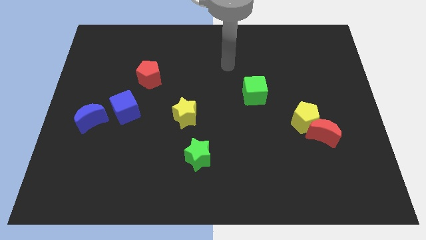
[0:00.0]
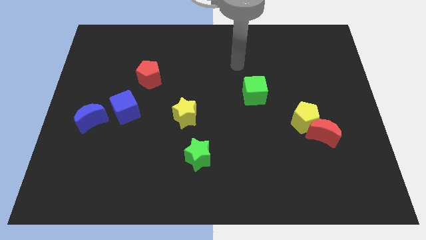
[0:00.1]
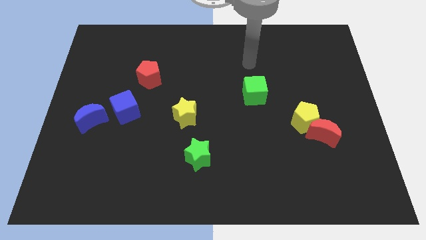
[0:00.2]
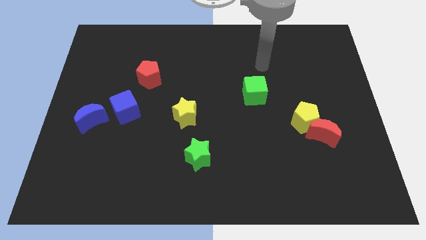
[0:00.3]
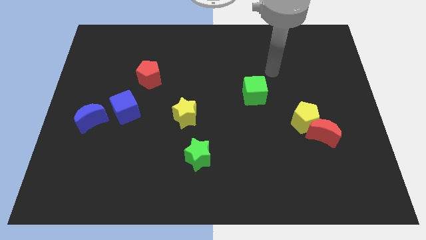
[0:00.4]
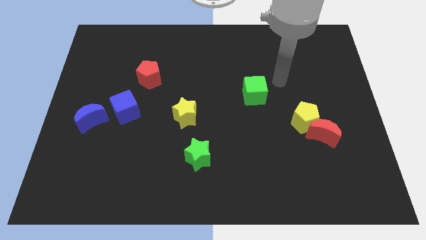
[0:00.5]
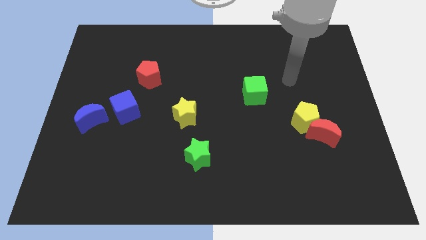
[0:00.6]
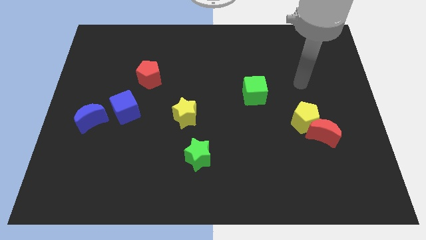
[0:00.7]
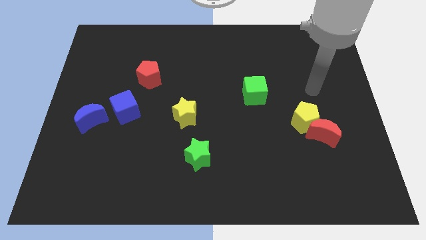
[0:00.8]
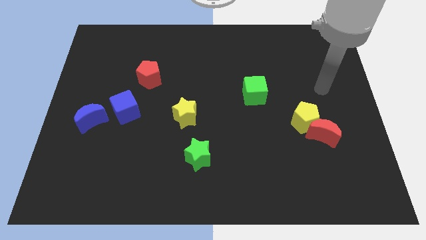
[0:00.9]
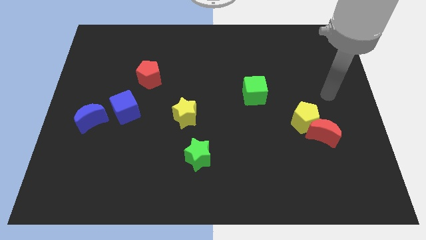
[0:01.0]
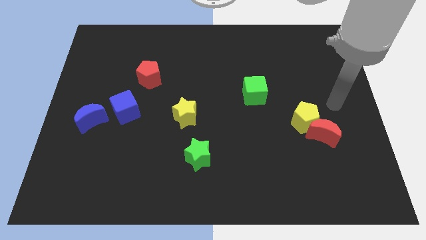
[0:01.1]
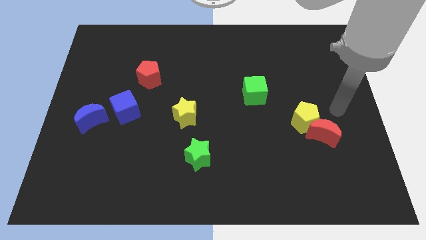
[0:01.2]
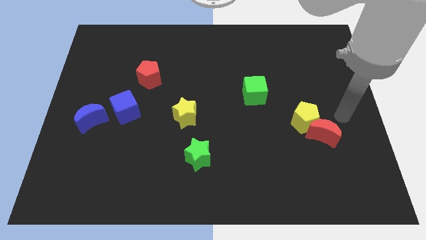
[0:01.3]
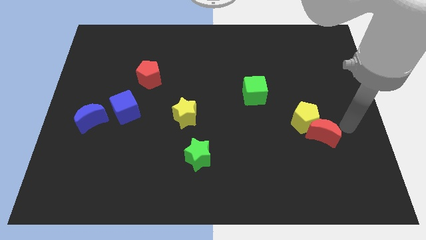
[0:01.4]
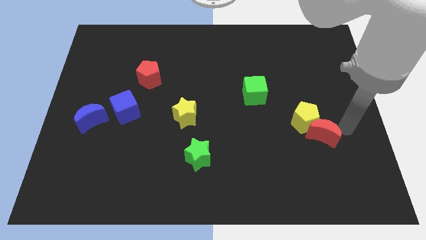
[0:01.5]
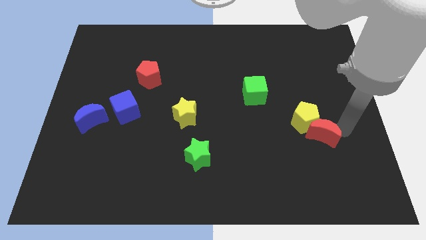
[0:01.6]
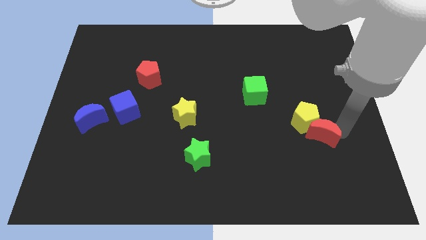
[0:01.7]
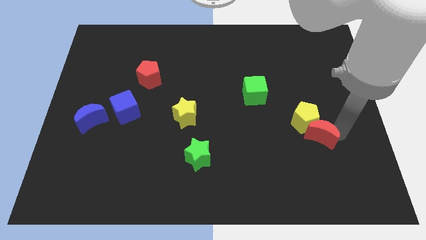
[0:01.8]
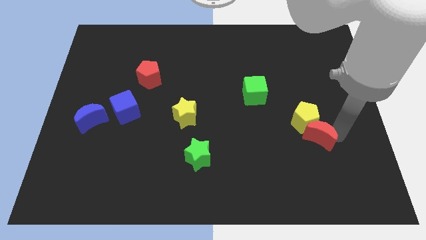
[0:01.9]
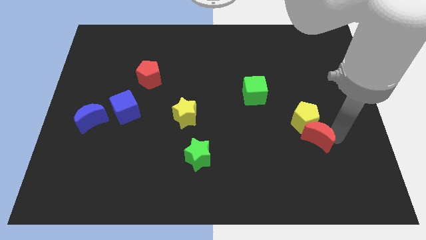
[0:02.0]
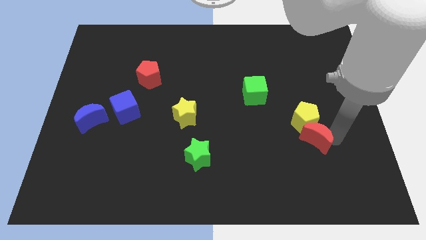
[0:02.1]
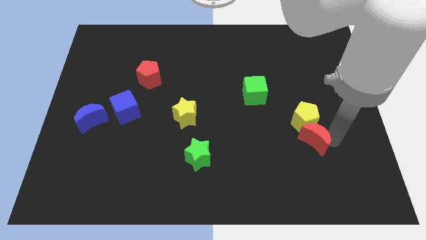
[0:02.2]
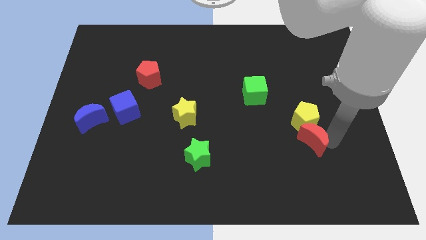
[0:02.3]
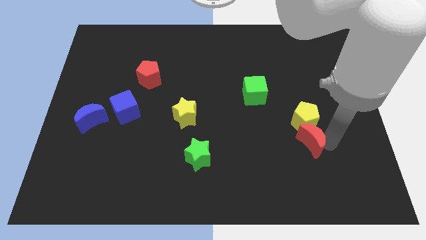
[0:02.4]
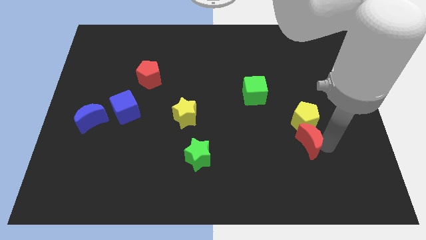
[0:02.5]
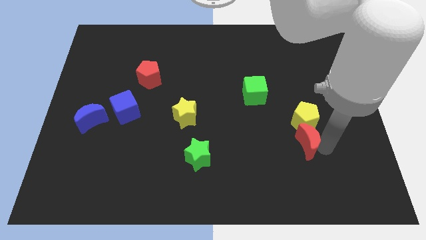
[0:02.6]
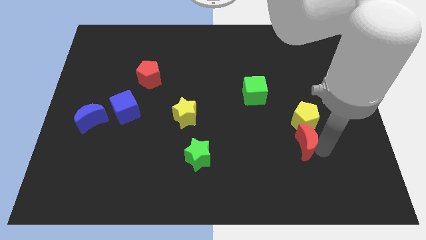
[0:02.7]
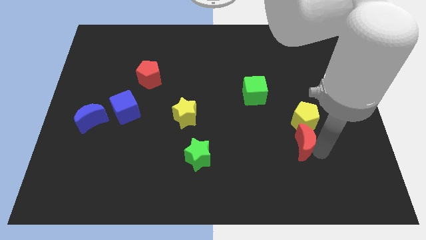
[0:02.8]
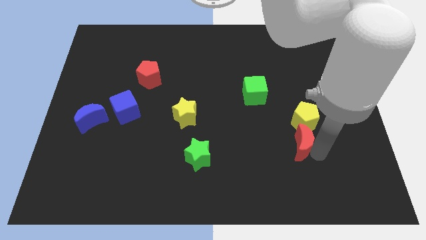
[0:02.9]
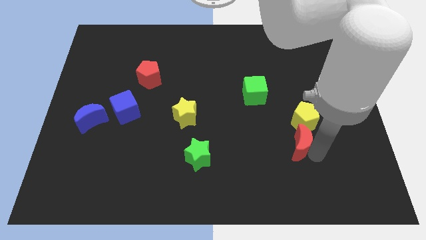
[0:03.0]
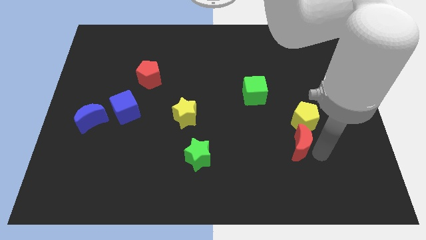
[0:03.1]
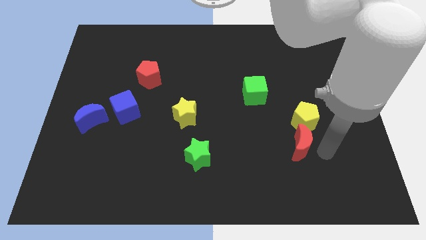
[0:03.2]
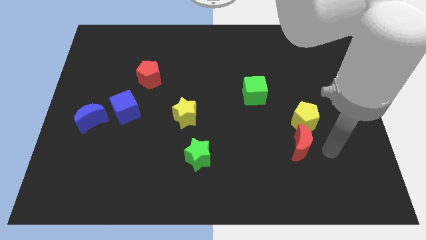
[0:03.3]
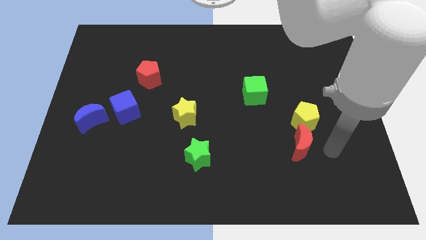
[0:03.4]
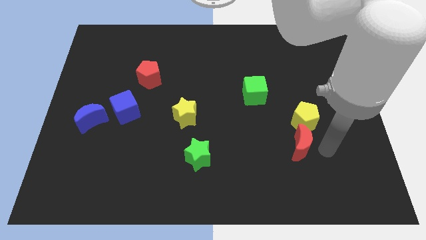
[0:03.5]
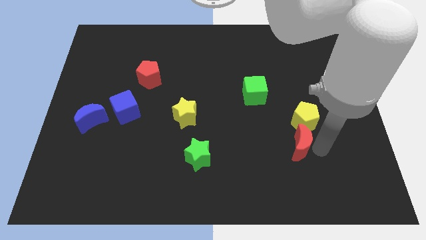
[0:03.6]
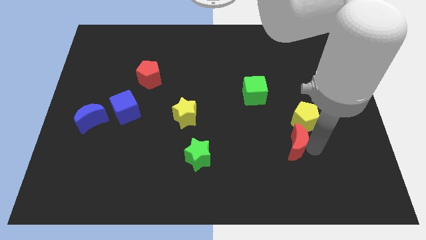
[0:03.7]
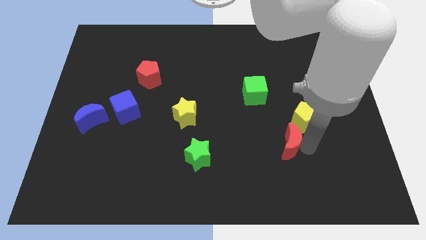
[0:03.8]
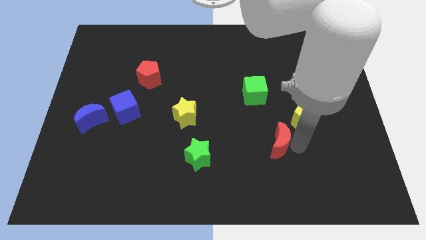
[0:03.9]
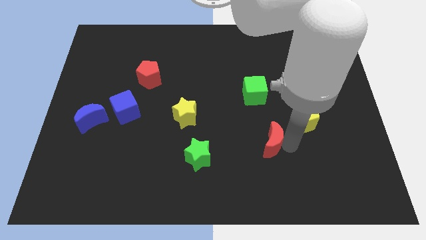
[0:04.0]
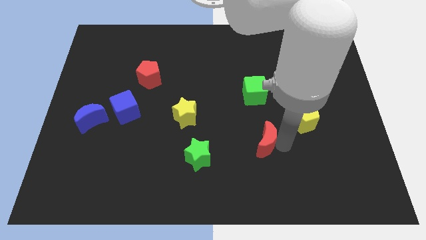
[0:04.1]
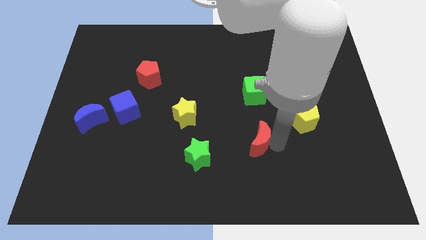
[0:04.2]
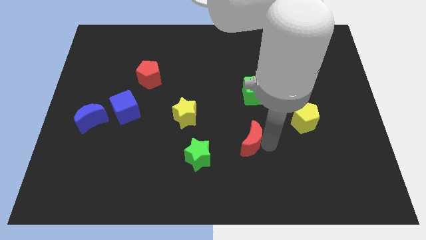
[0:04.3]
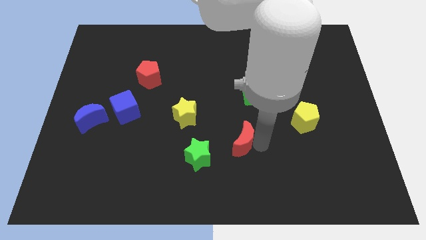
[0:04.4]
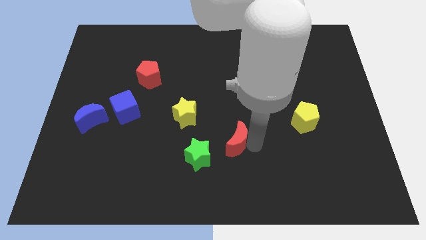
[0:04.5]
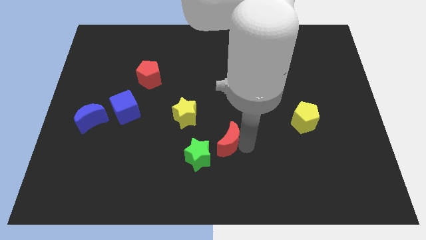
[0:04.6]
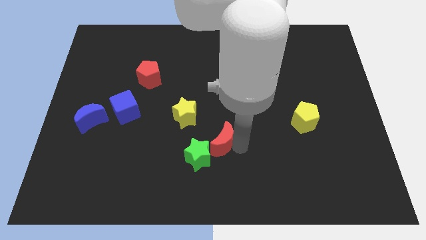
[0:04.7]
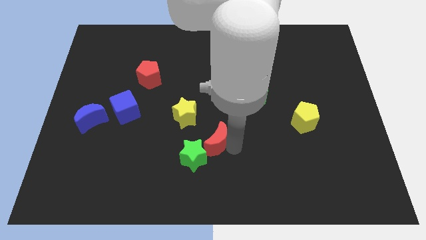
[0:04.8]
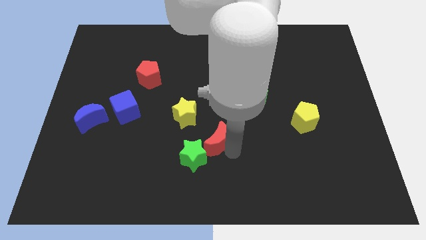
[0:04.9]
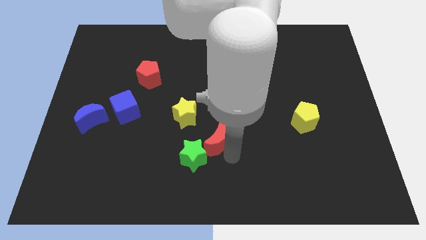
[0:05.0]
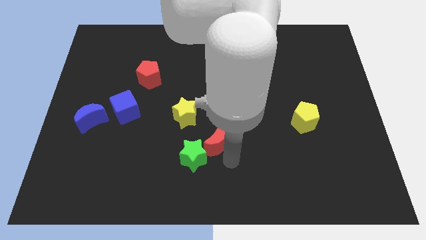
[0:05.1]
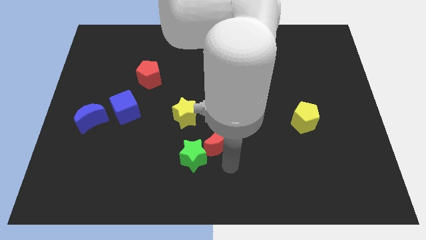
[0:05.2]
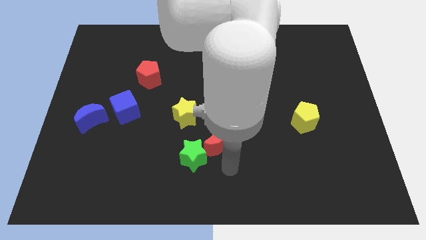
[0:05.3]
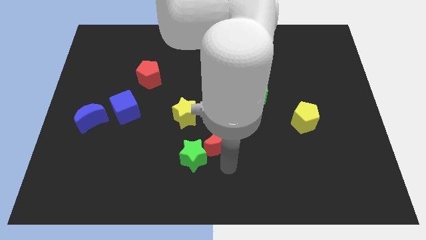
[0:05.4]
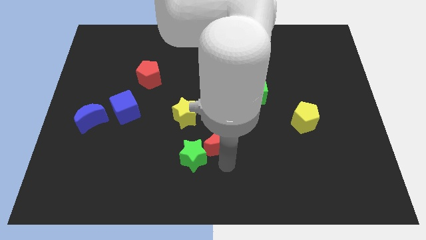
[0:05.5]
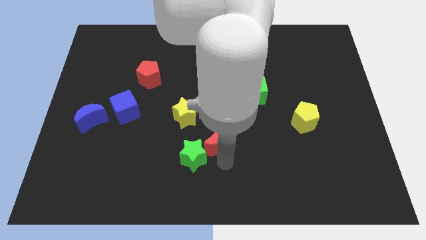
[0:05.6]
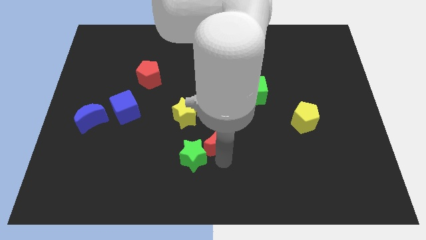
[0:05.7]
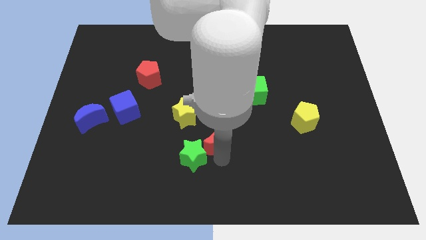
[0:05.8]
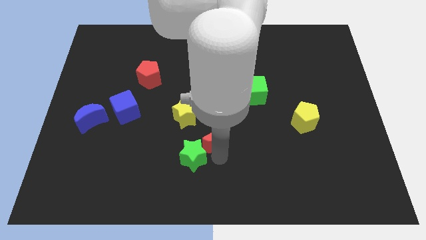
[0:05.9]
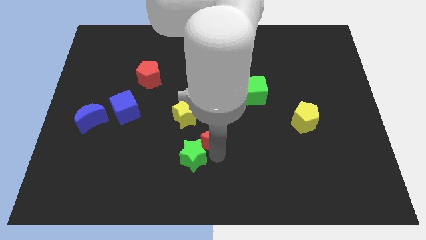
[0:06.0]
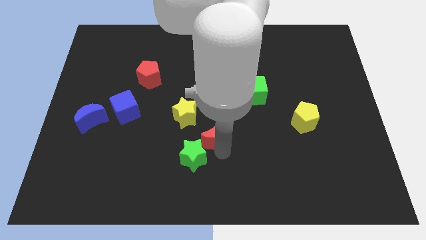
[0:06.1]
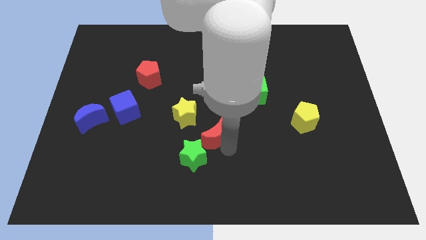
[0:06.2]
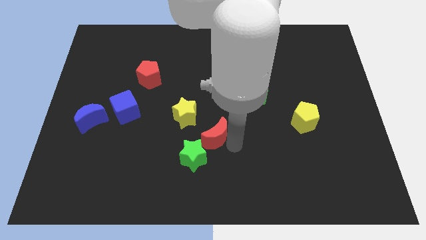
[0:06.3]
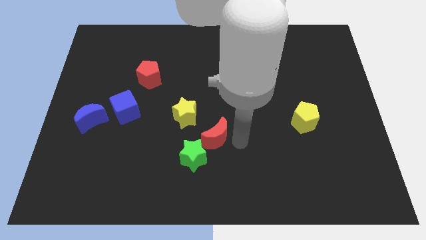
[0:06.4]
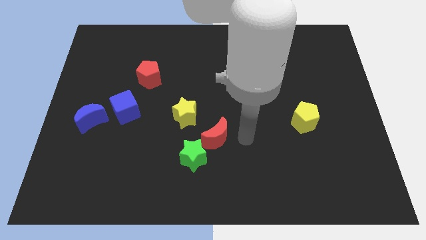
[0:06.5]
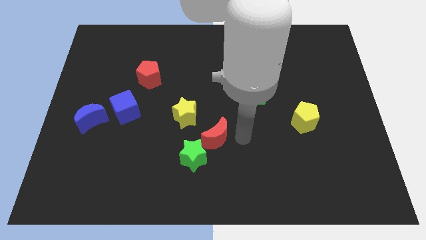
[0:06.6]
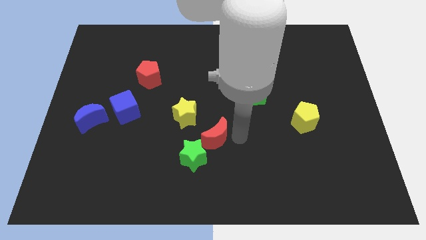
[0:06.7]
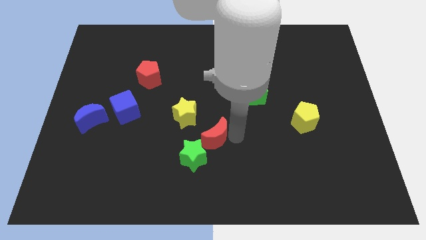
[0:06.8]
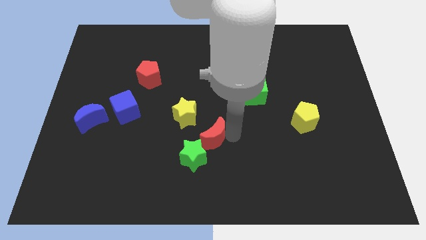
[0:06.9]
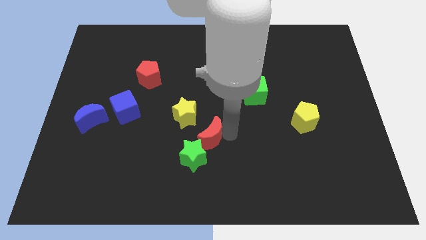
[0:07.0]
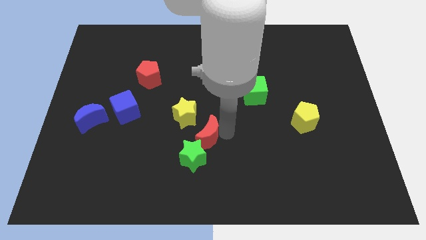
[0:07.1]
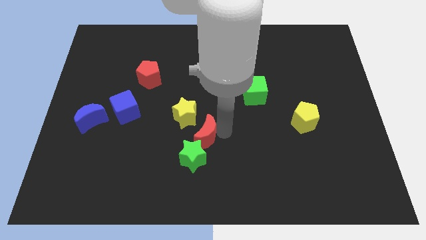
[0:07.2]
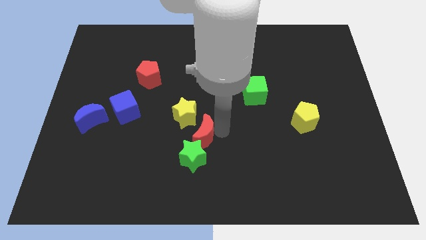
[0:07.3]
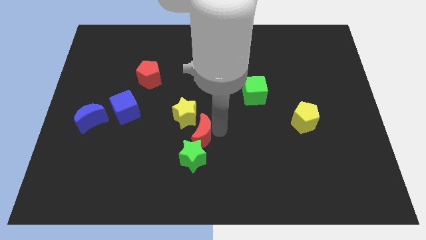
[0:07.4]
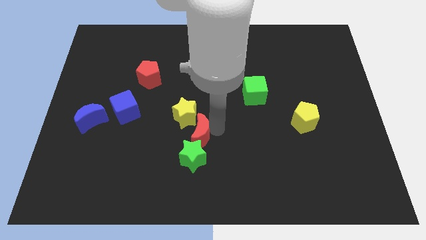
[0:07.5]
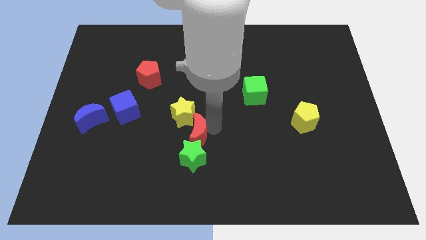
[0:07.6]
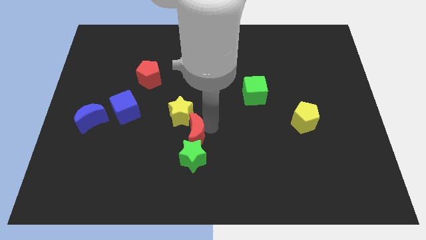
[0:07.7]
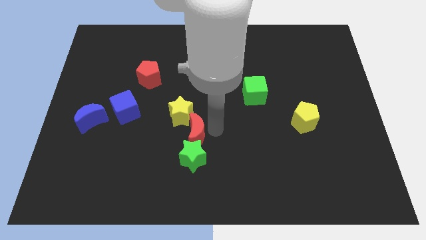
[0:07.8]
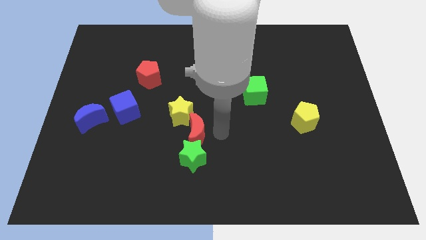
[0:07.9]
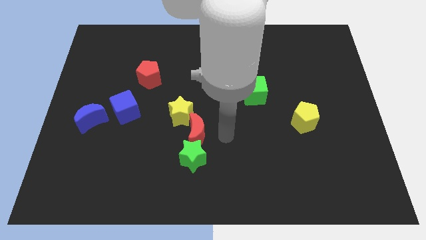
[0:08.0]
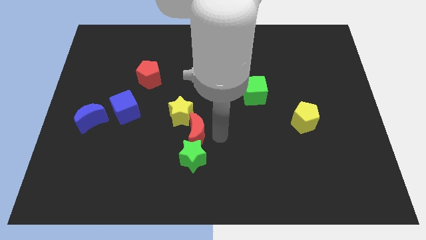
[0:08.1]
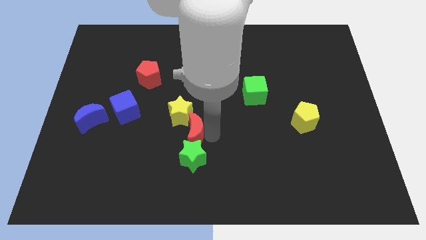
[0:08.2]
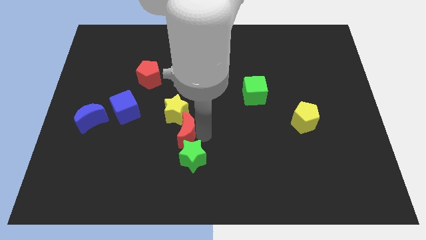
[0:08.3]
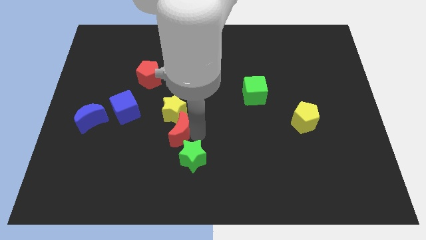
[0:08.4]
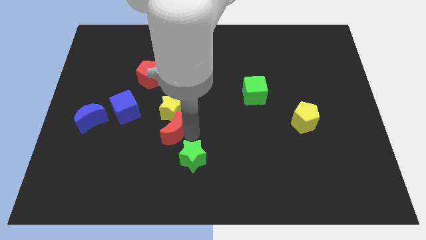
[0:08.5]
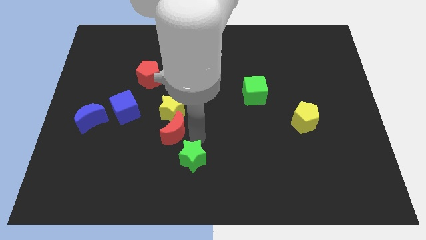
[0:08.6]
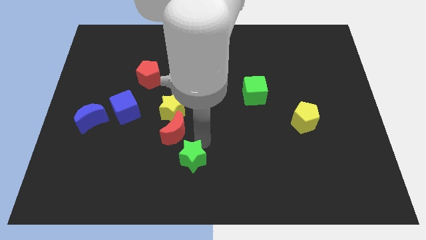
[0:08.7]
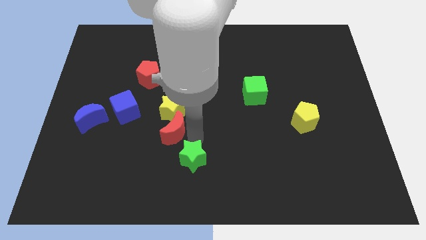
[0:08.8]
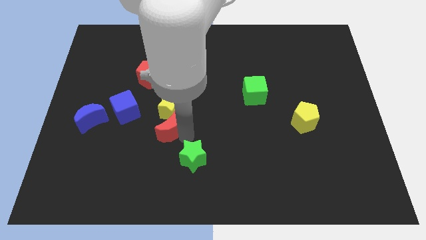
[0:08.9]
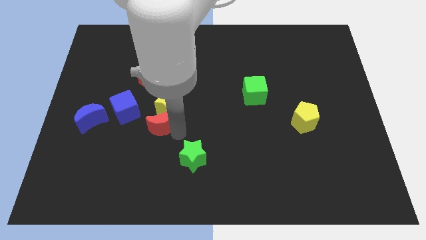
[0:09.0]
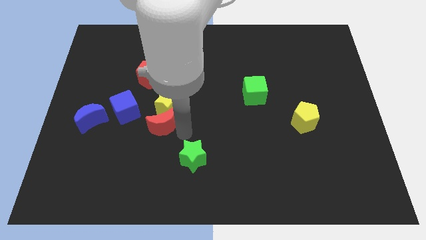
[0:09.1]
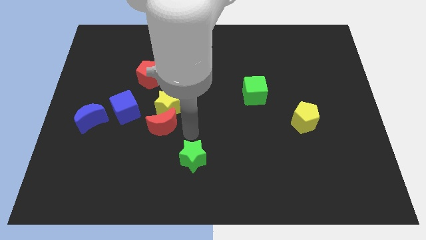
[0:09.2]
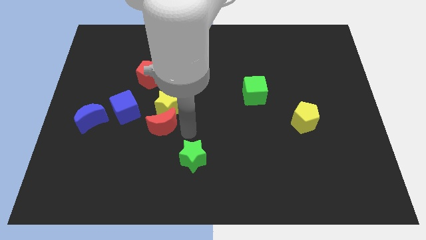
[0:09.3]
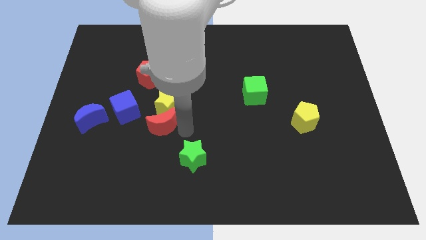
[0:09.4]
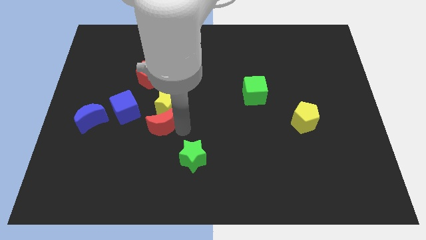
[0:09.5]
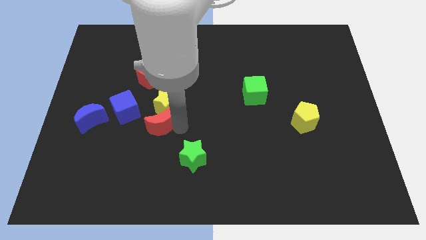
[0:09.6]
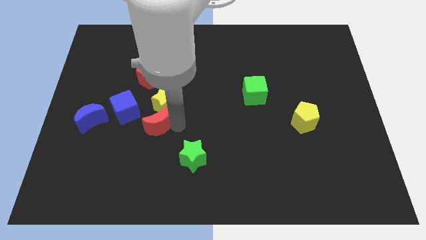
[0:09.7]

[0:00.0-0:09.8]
put the red moon to the right side of the blue moon
